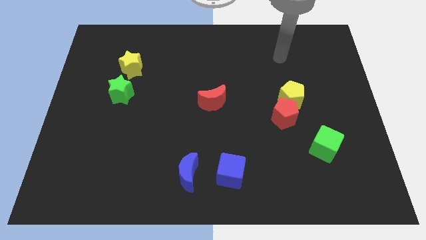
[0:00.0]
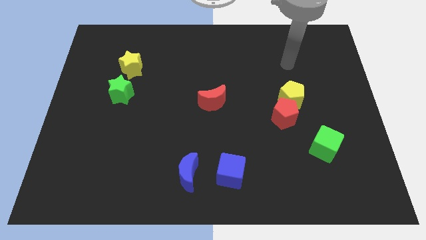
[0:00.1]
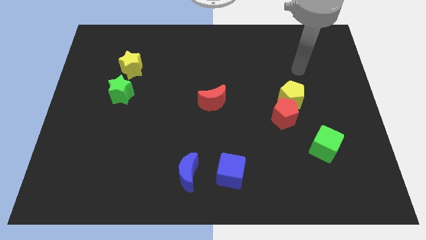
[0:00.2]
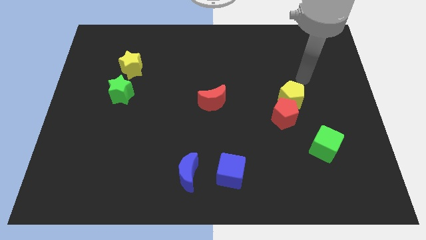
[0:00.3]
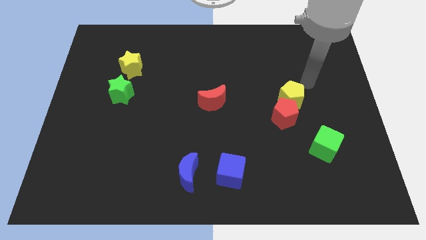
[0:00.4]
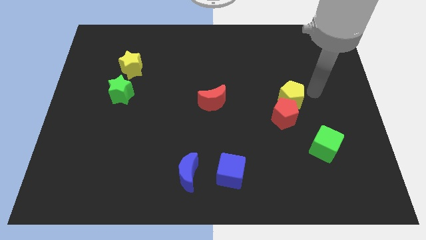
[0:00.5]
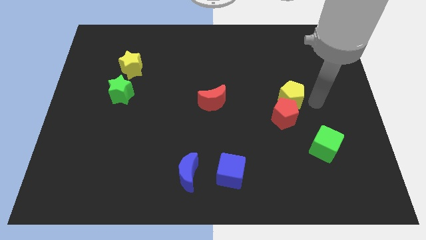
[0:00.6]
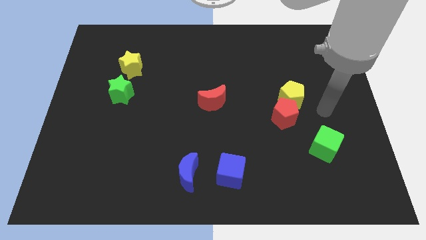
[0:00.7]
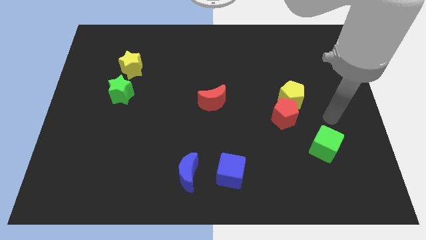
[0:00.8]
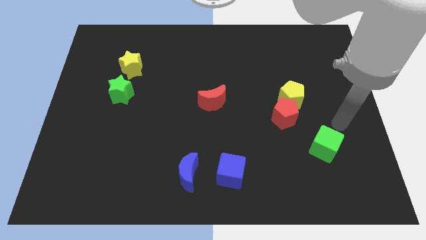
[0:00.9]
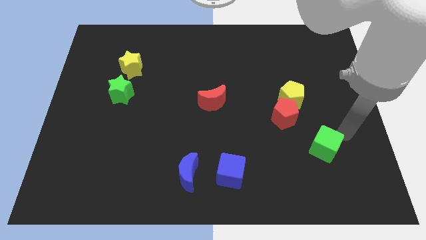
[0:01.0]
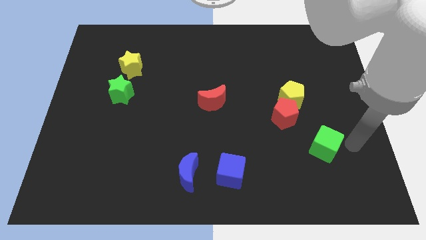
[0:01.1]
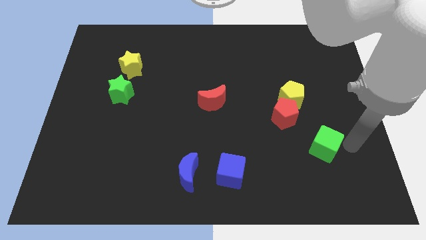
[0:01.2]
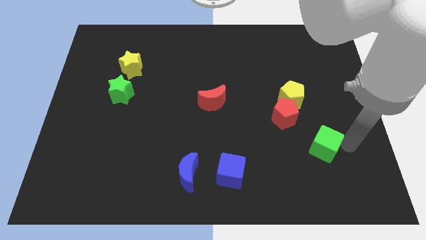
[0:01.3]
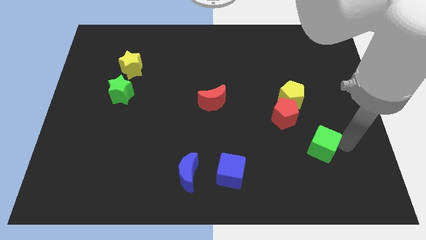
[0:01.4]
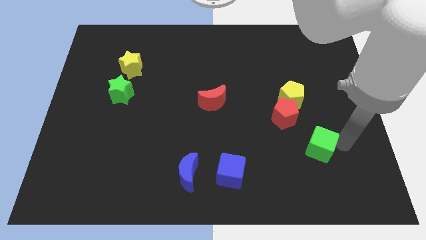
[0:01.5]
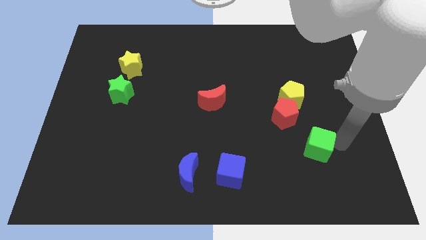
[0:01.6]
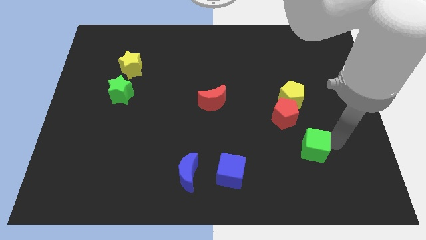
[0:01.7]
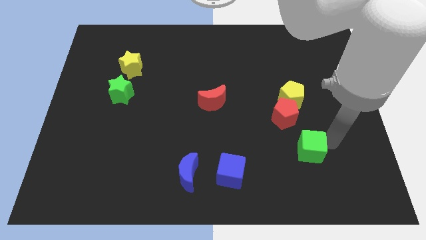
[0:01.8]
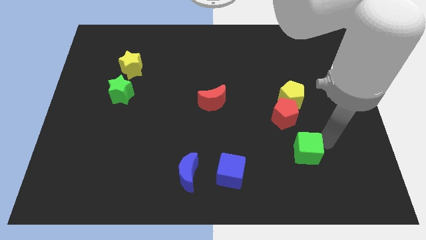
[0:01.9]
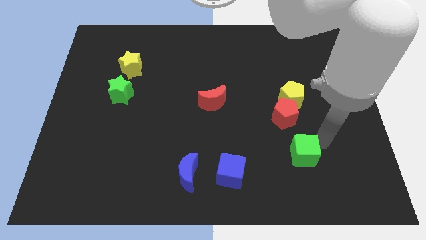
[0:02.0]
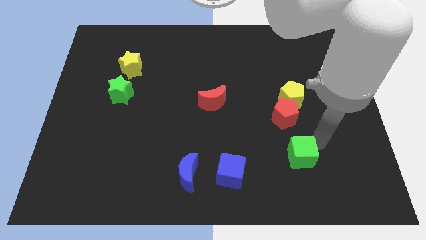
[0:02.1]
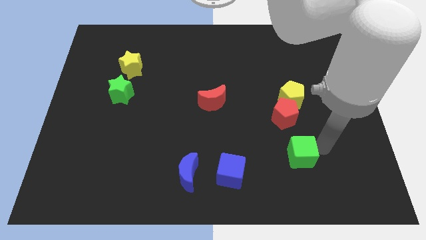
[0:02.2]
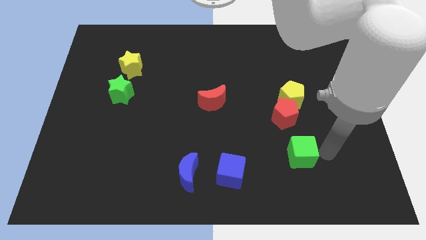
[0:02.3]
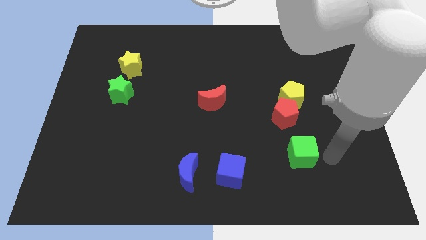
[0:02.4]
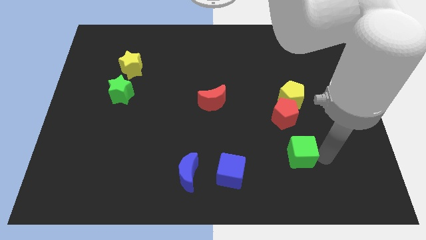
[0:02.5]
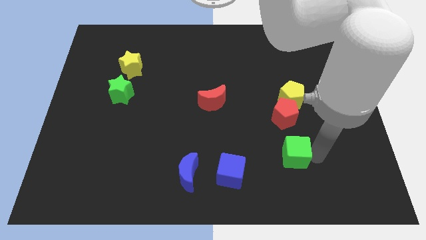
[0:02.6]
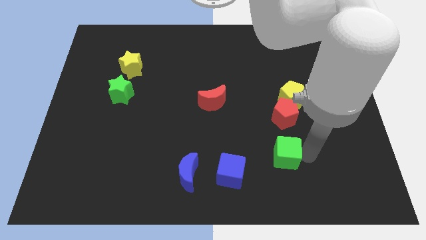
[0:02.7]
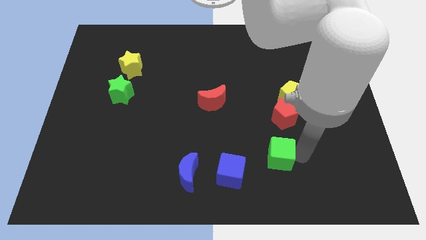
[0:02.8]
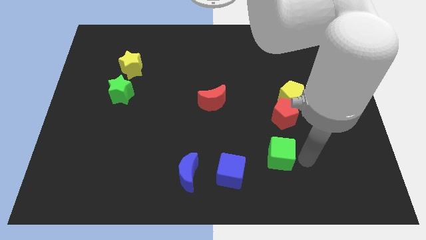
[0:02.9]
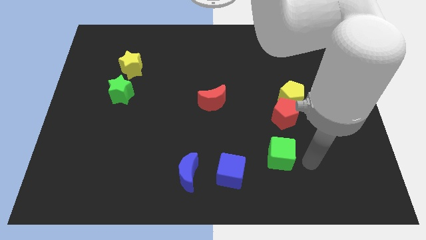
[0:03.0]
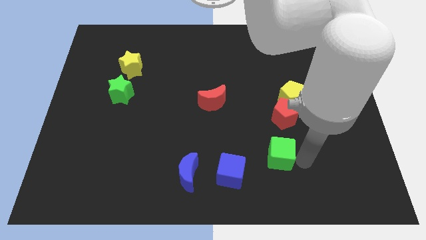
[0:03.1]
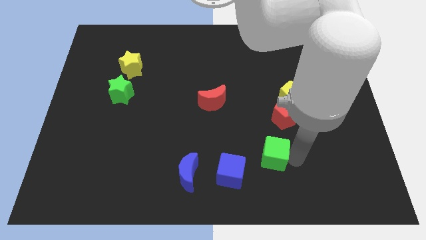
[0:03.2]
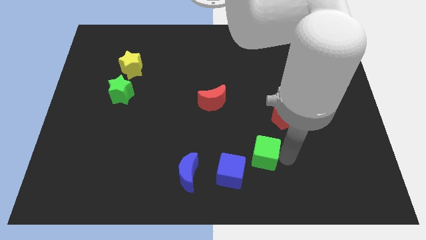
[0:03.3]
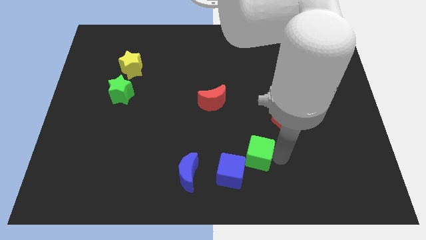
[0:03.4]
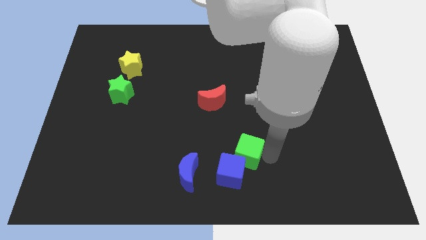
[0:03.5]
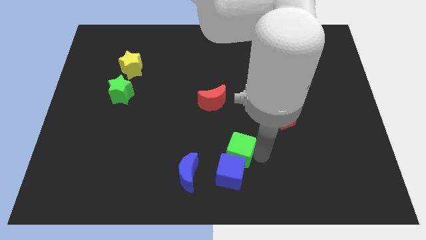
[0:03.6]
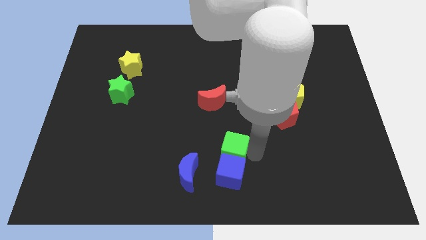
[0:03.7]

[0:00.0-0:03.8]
slide the green cube to the left

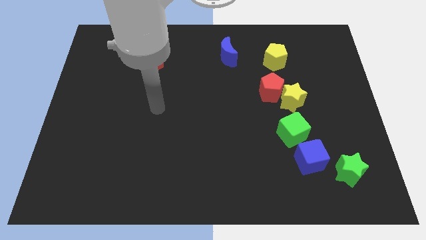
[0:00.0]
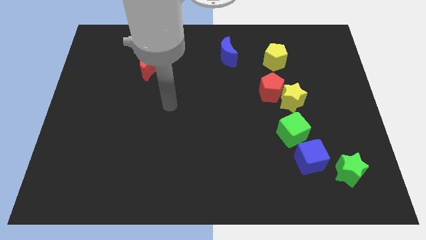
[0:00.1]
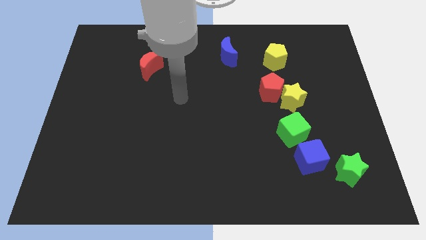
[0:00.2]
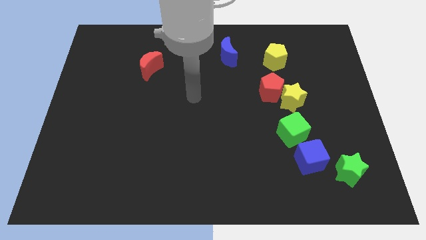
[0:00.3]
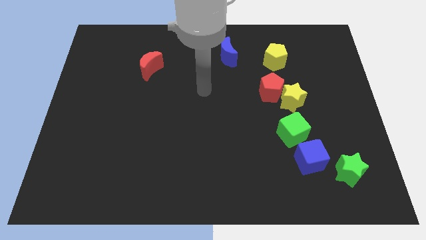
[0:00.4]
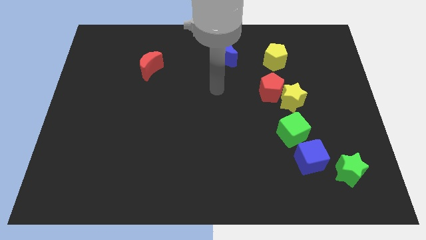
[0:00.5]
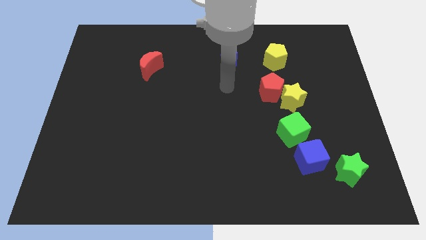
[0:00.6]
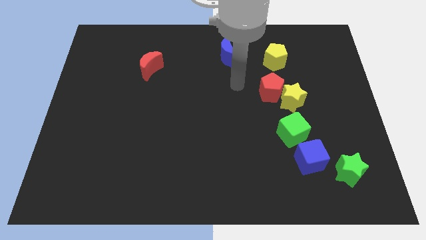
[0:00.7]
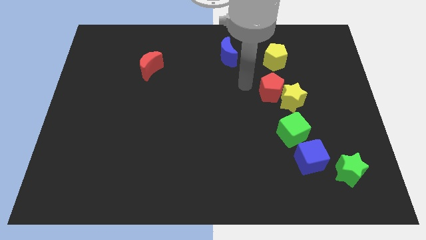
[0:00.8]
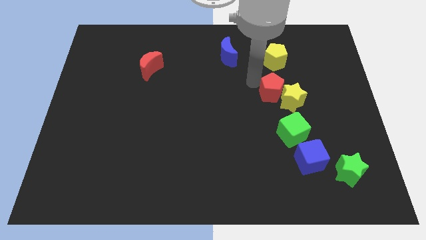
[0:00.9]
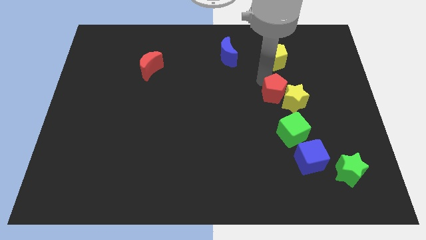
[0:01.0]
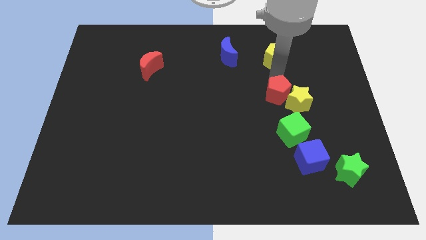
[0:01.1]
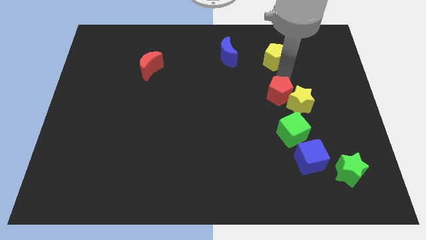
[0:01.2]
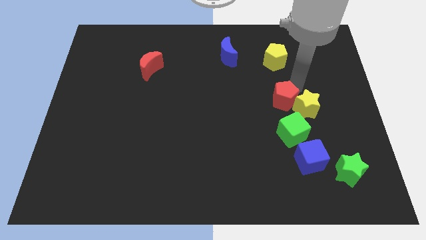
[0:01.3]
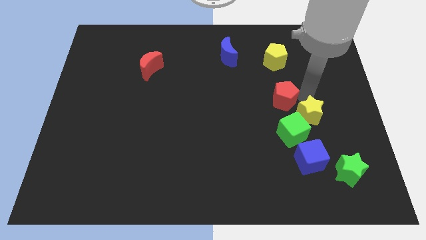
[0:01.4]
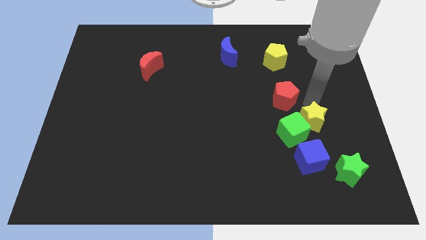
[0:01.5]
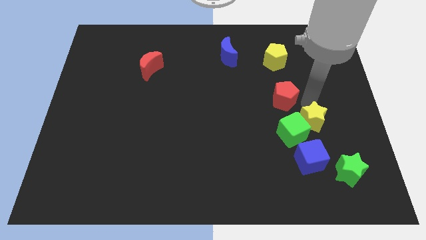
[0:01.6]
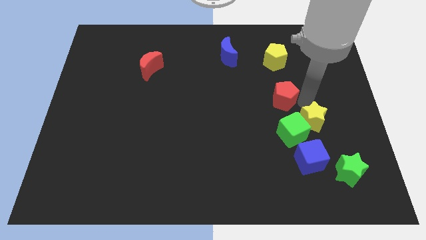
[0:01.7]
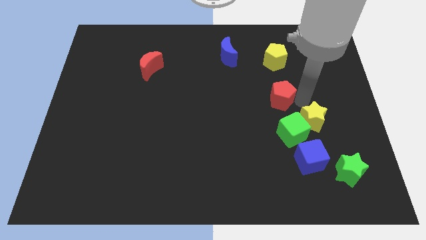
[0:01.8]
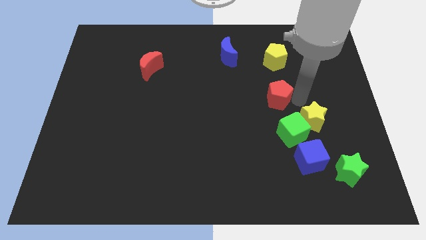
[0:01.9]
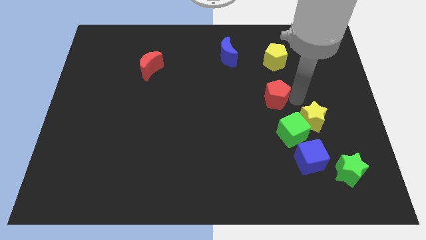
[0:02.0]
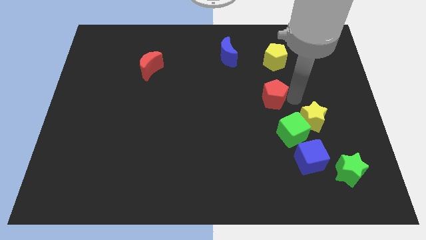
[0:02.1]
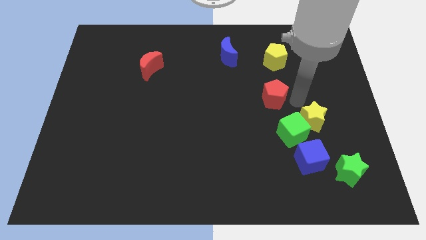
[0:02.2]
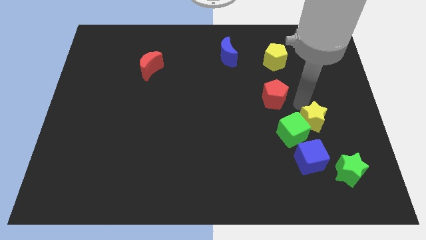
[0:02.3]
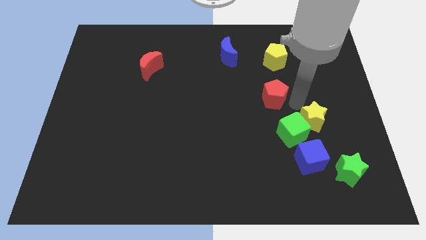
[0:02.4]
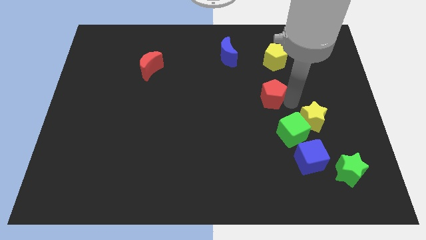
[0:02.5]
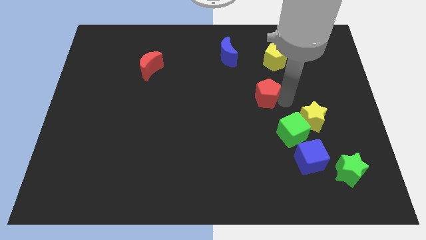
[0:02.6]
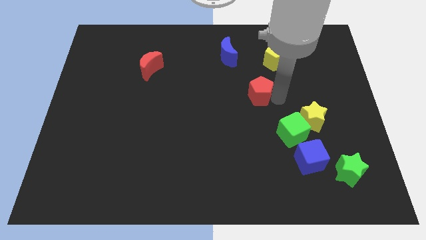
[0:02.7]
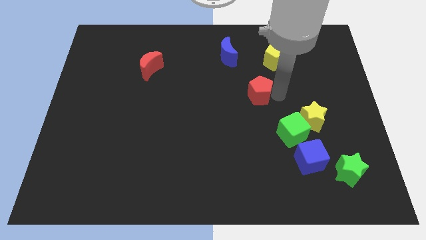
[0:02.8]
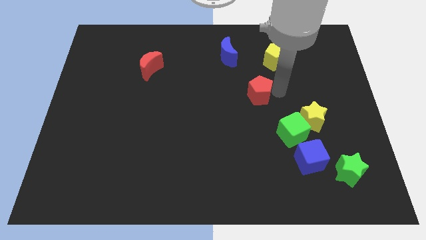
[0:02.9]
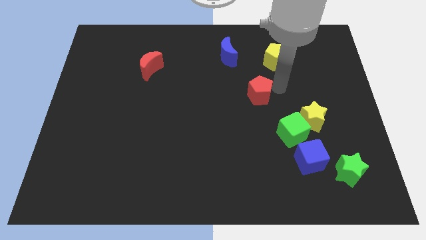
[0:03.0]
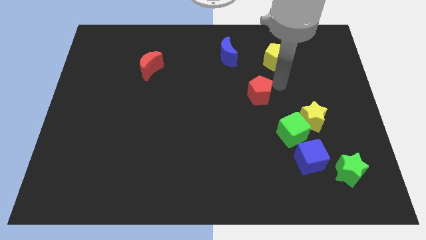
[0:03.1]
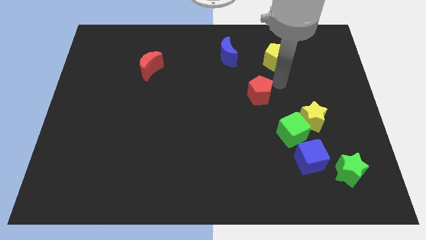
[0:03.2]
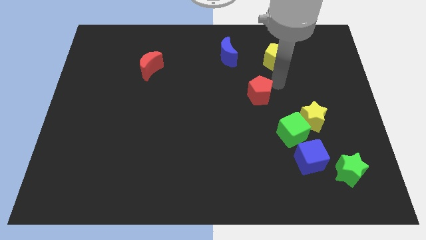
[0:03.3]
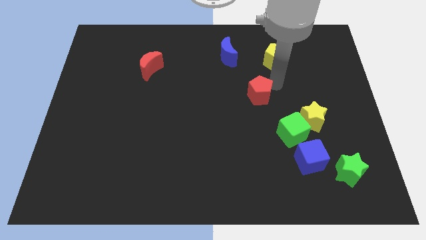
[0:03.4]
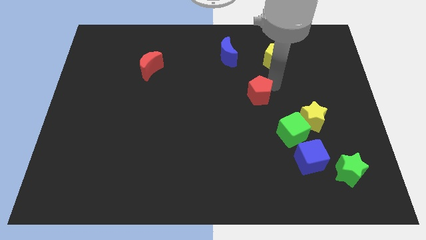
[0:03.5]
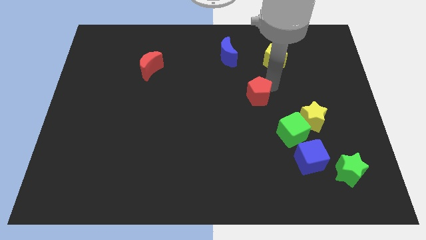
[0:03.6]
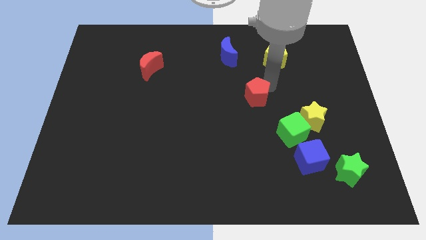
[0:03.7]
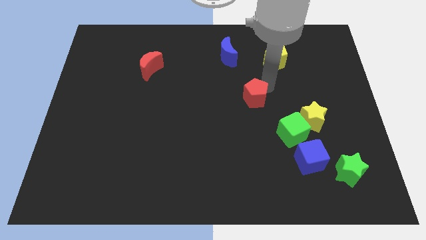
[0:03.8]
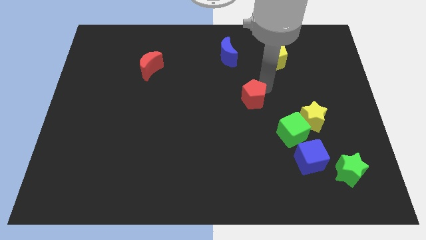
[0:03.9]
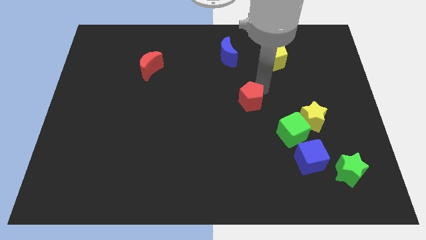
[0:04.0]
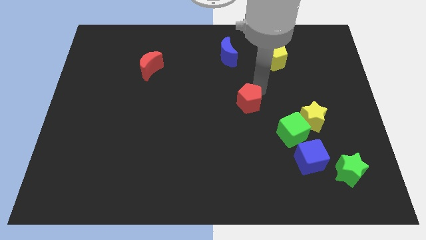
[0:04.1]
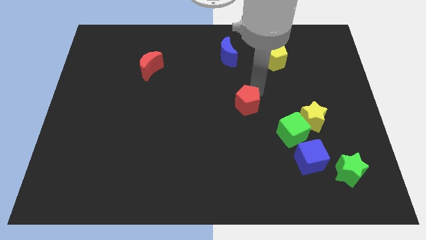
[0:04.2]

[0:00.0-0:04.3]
move the red pentagon downwards and to the left diagonally slightly
